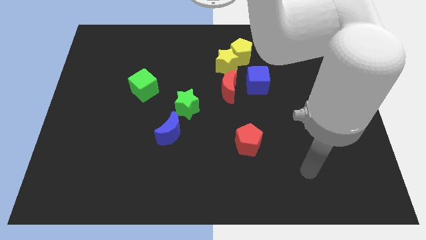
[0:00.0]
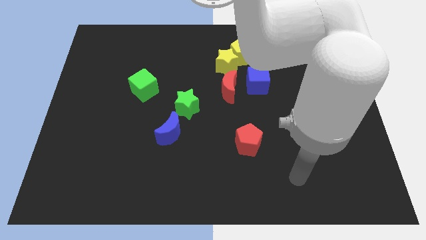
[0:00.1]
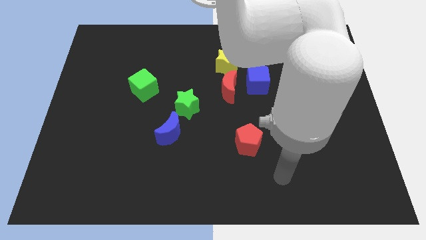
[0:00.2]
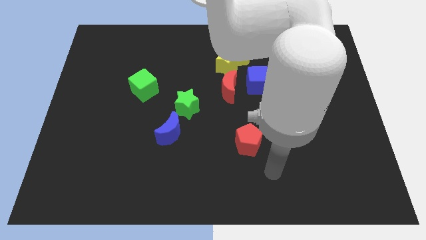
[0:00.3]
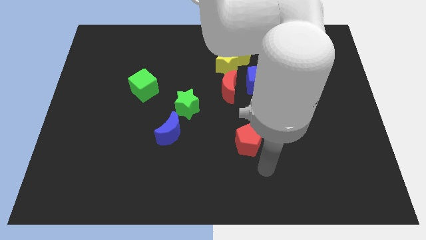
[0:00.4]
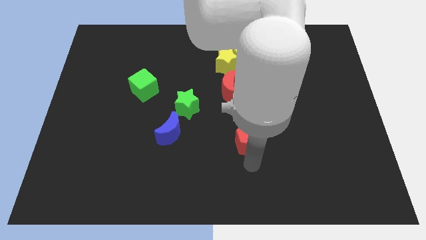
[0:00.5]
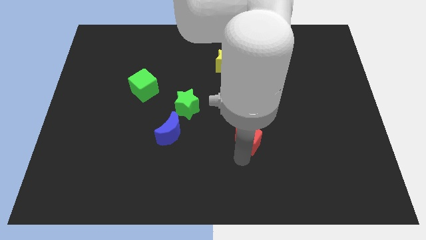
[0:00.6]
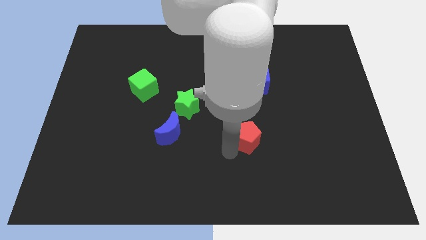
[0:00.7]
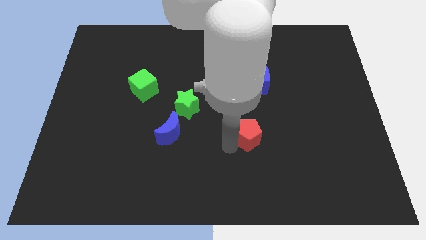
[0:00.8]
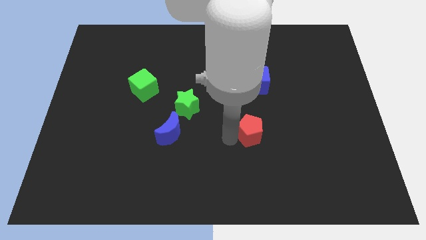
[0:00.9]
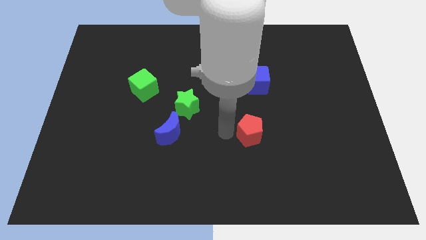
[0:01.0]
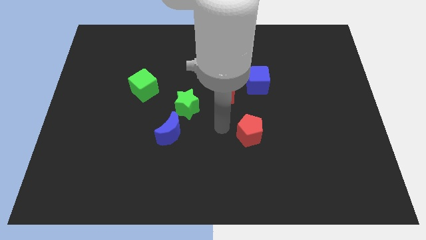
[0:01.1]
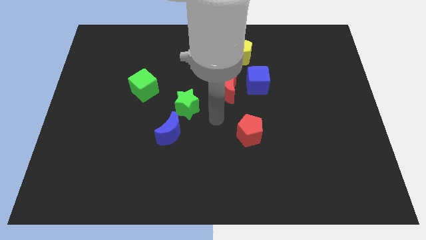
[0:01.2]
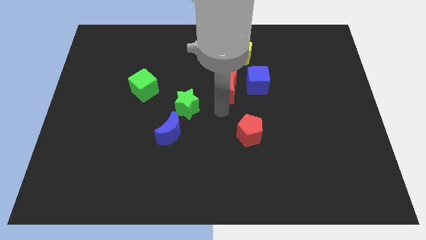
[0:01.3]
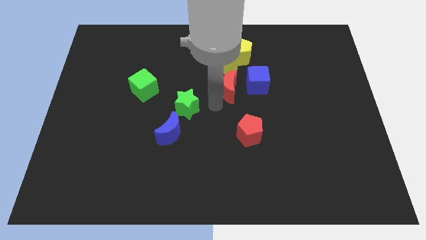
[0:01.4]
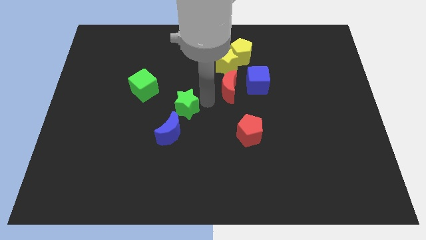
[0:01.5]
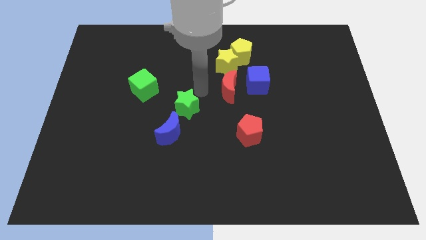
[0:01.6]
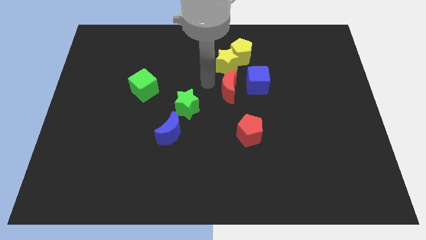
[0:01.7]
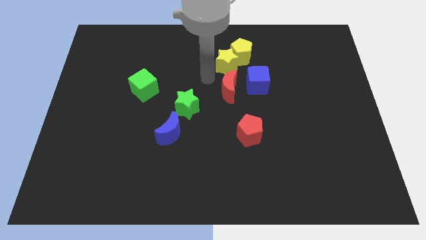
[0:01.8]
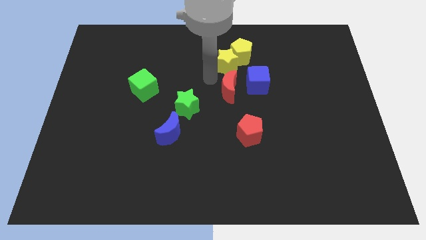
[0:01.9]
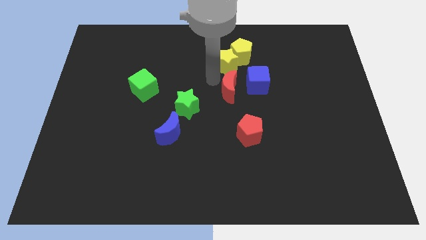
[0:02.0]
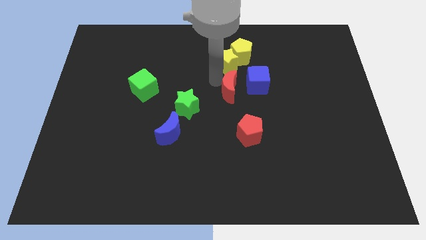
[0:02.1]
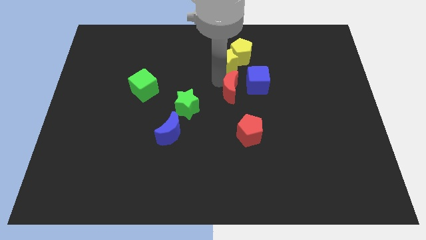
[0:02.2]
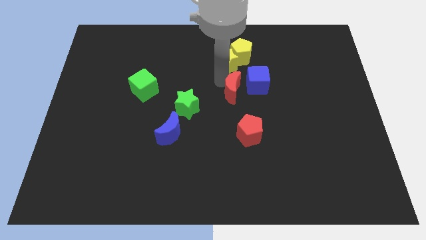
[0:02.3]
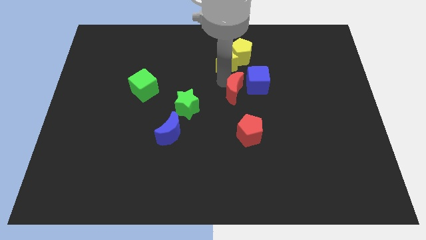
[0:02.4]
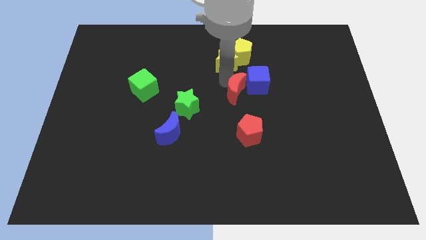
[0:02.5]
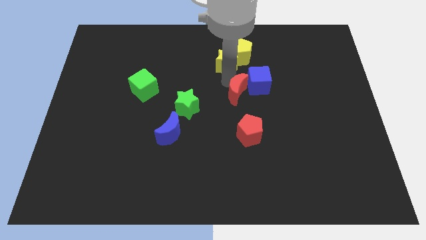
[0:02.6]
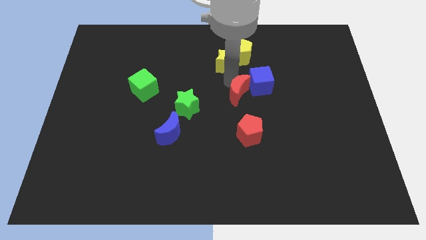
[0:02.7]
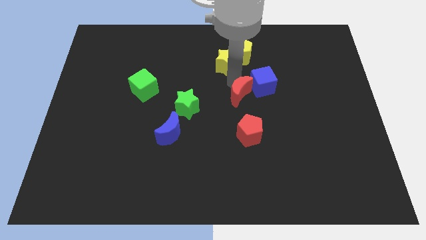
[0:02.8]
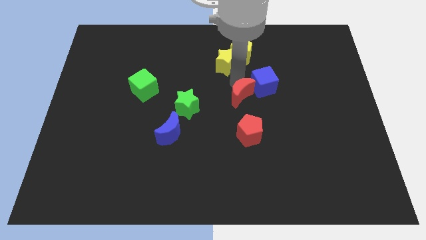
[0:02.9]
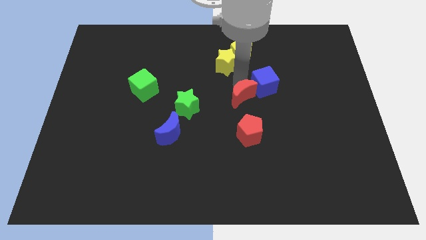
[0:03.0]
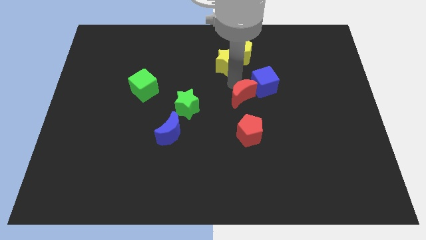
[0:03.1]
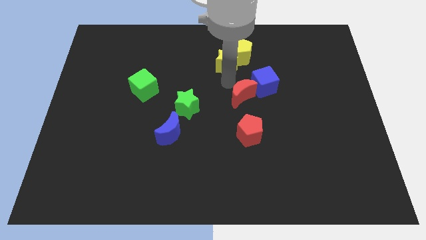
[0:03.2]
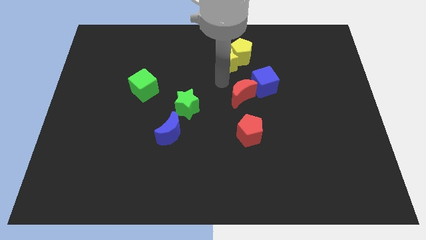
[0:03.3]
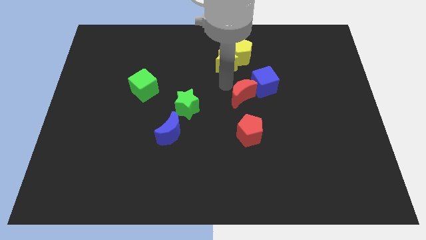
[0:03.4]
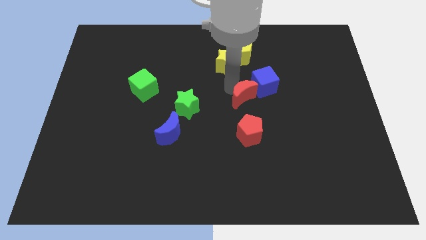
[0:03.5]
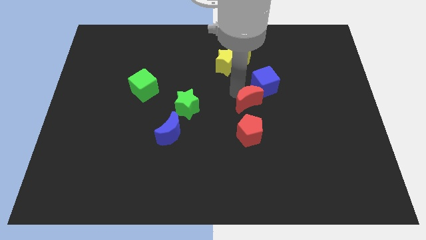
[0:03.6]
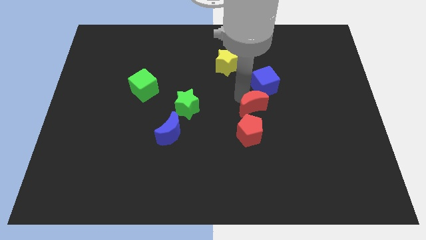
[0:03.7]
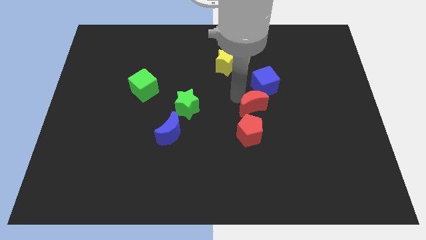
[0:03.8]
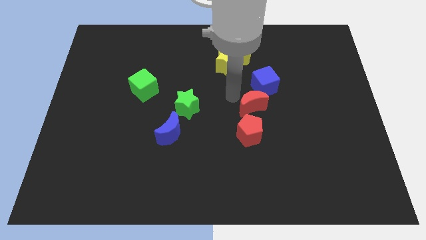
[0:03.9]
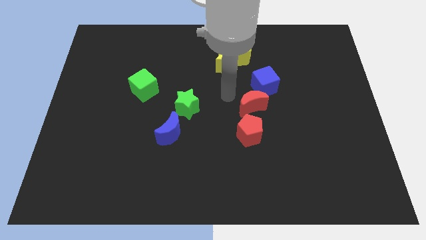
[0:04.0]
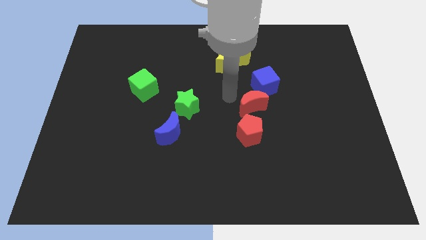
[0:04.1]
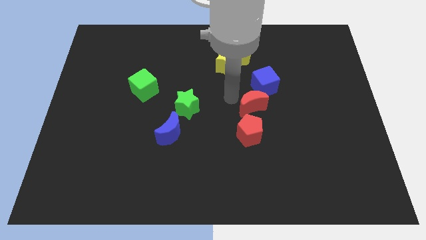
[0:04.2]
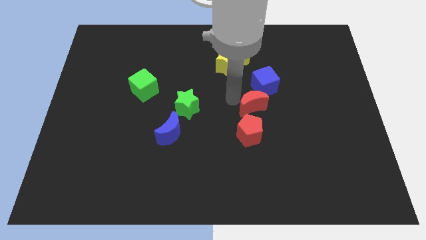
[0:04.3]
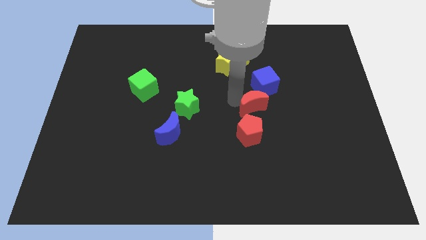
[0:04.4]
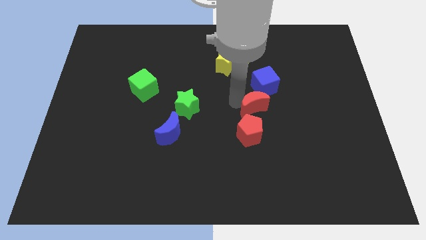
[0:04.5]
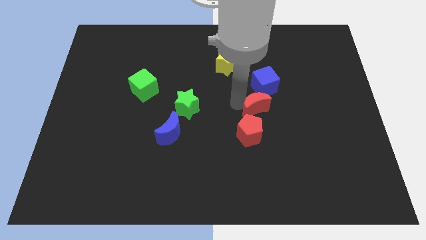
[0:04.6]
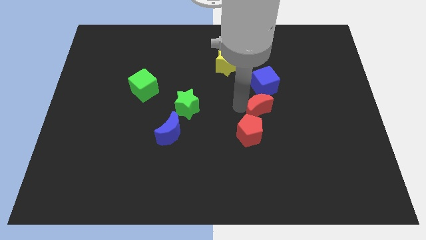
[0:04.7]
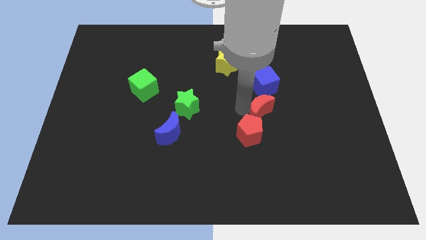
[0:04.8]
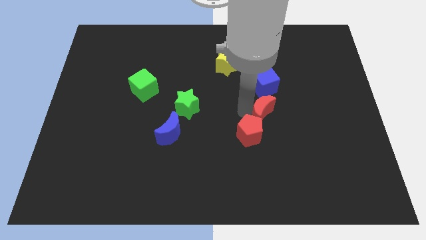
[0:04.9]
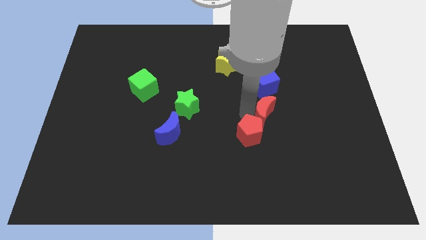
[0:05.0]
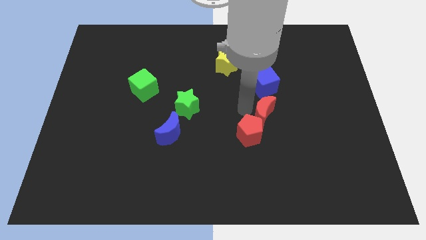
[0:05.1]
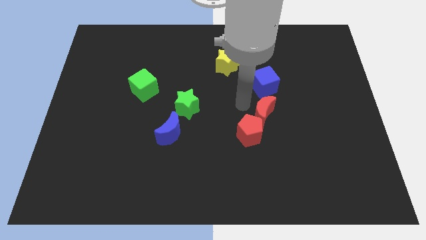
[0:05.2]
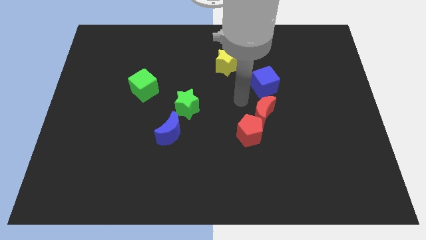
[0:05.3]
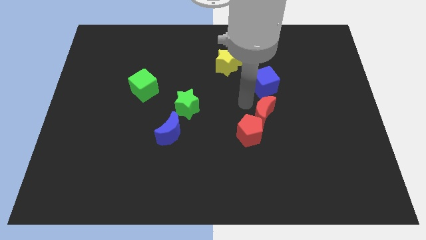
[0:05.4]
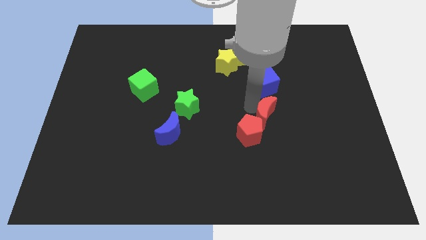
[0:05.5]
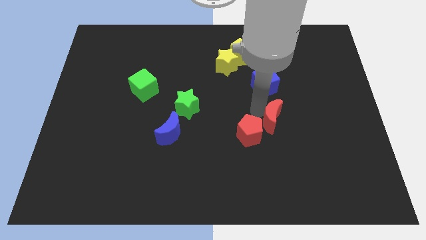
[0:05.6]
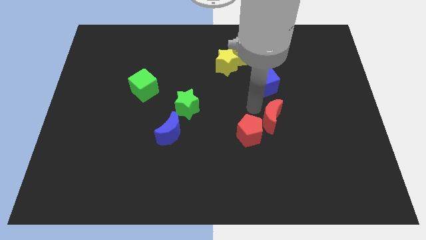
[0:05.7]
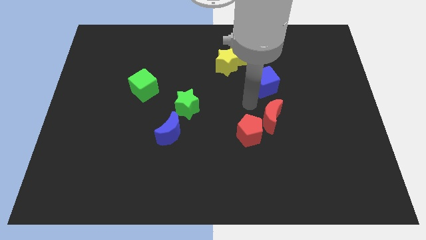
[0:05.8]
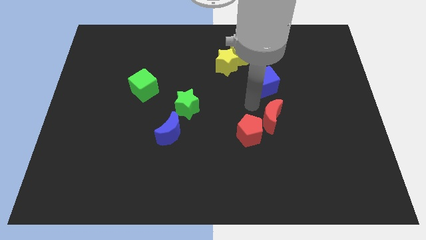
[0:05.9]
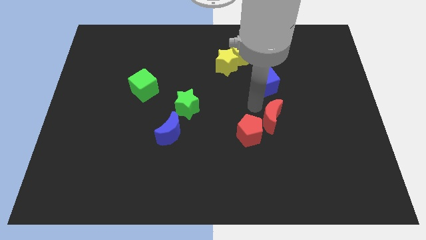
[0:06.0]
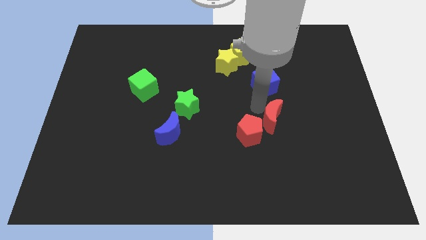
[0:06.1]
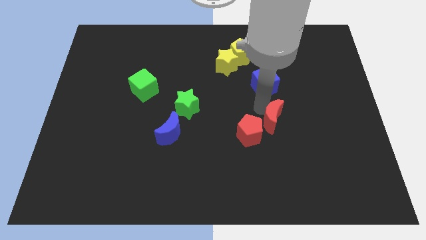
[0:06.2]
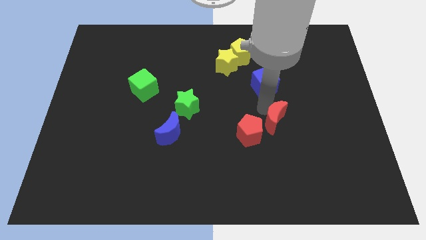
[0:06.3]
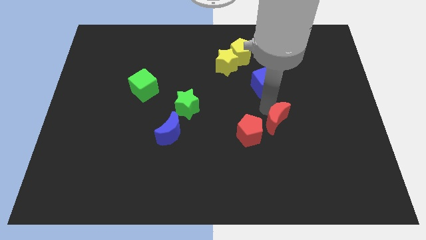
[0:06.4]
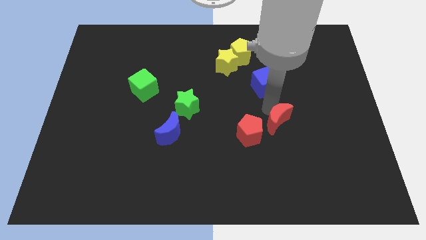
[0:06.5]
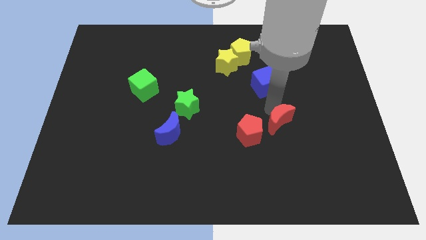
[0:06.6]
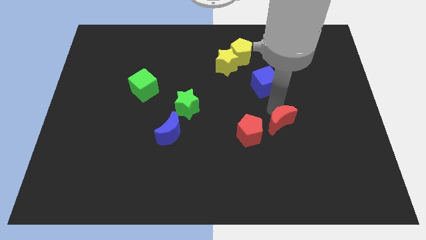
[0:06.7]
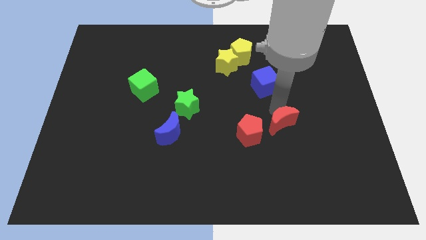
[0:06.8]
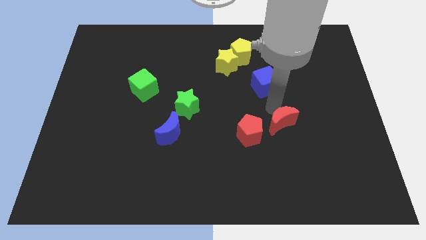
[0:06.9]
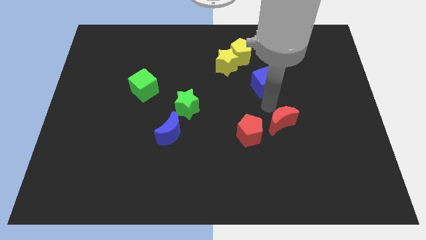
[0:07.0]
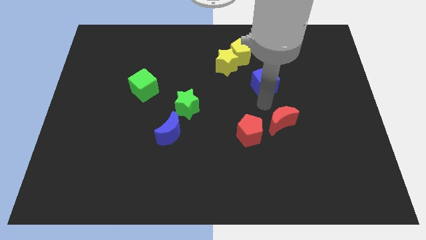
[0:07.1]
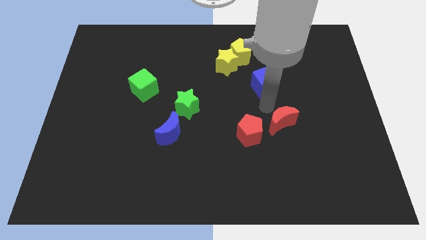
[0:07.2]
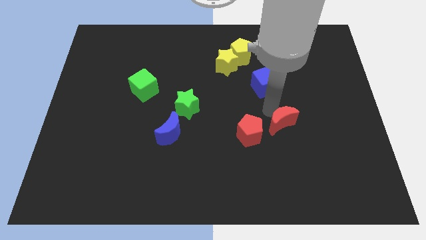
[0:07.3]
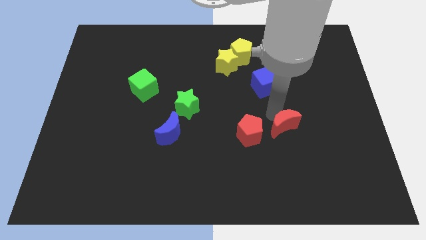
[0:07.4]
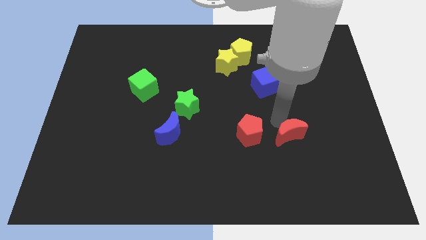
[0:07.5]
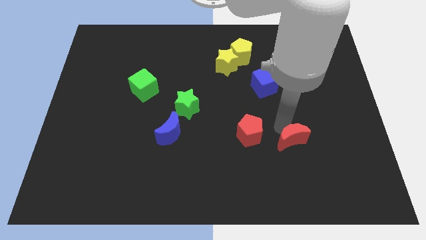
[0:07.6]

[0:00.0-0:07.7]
push the red moon downwards and right
